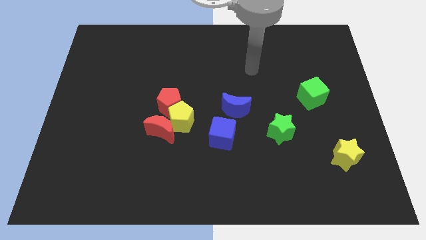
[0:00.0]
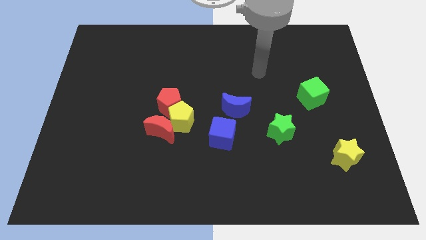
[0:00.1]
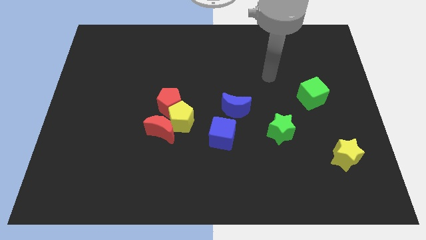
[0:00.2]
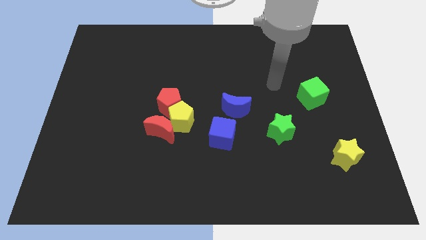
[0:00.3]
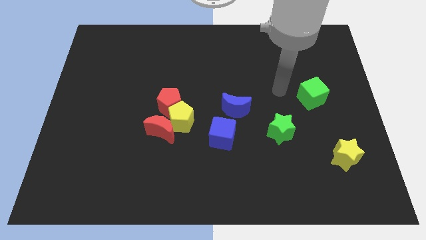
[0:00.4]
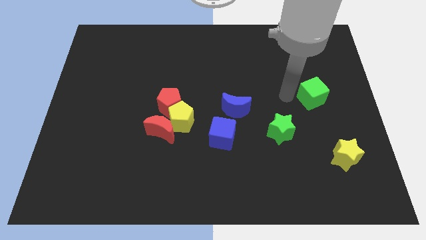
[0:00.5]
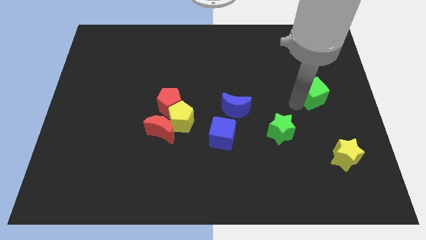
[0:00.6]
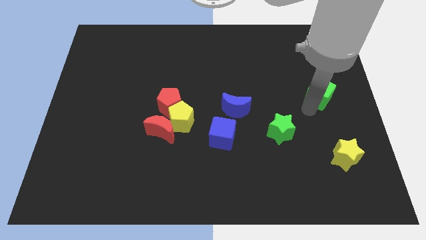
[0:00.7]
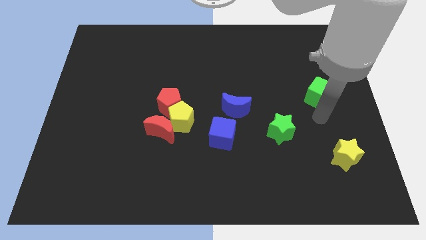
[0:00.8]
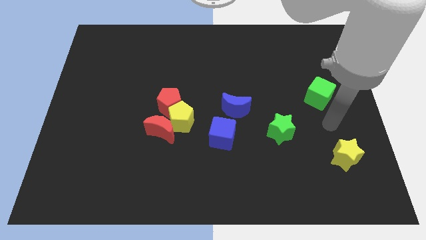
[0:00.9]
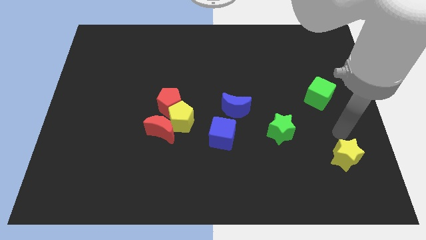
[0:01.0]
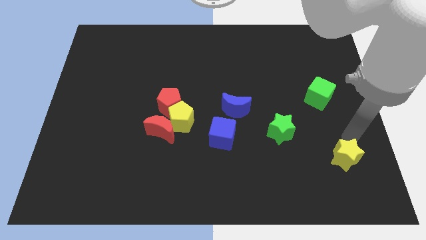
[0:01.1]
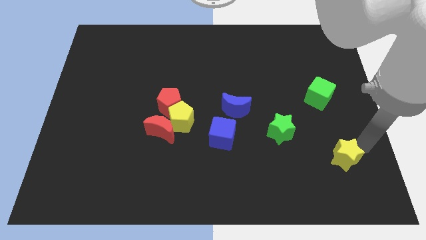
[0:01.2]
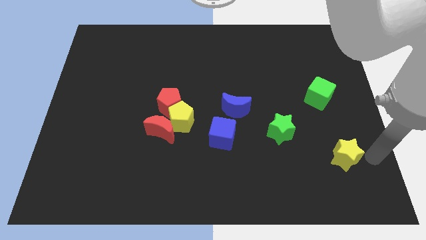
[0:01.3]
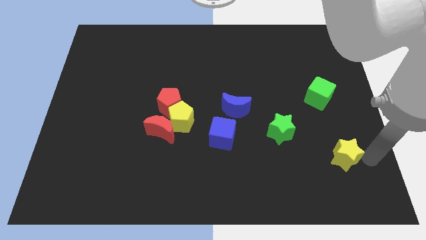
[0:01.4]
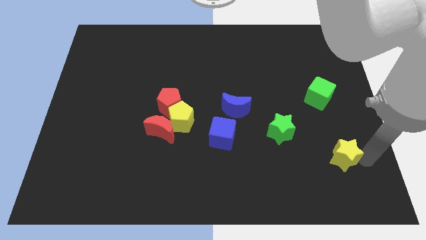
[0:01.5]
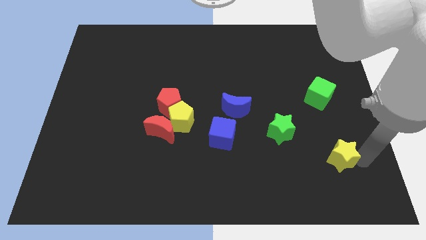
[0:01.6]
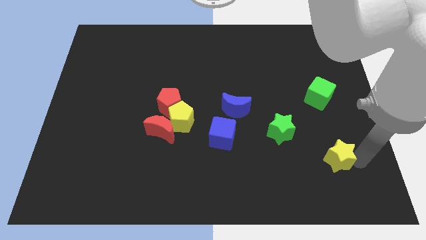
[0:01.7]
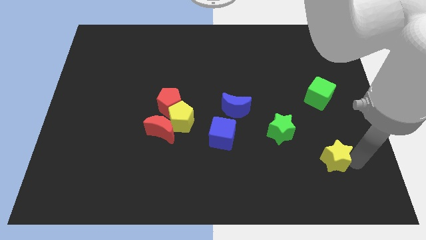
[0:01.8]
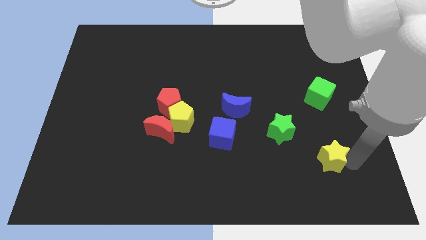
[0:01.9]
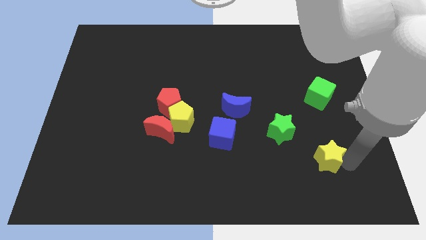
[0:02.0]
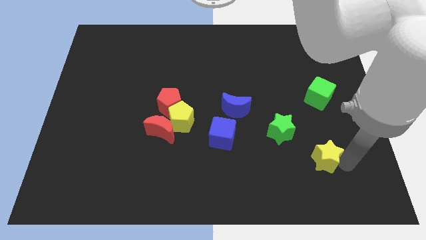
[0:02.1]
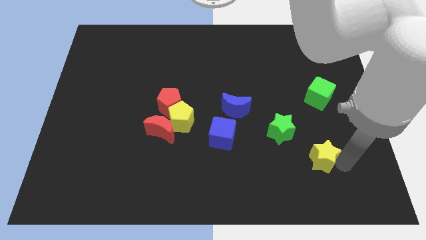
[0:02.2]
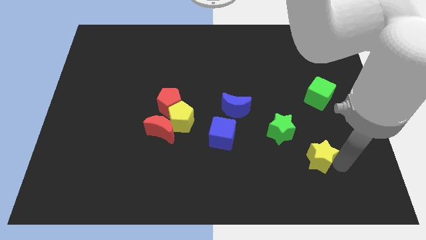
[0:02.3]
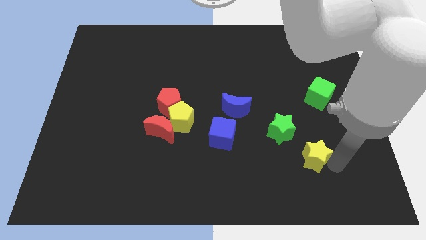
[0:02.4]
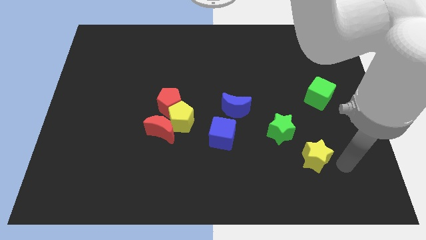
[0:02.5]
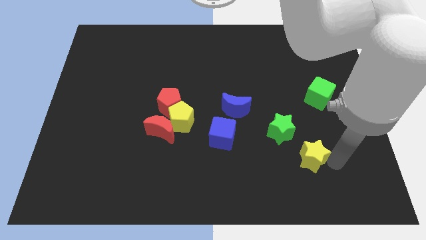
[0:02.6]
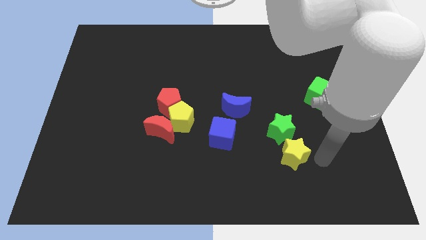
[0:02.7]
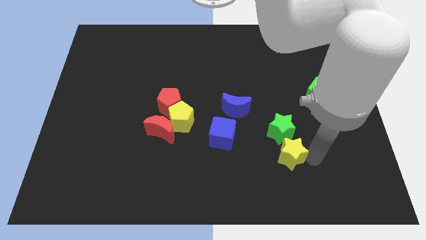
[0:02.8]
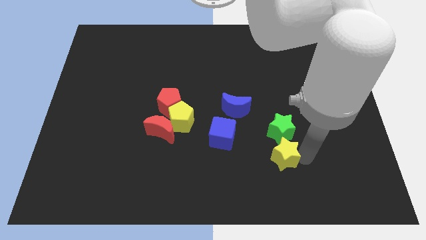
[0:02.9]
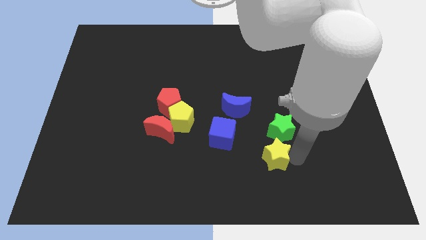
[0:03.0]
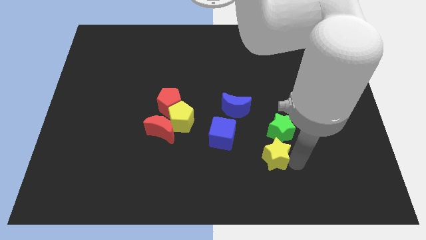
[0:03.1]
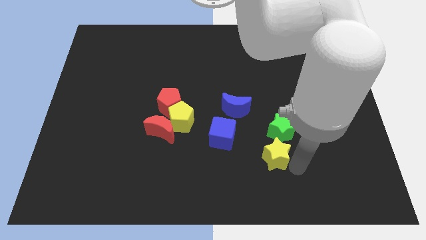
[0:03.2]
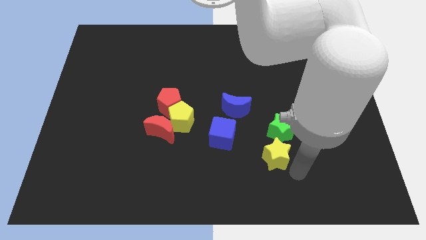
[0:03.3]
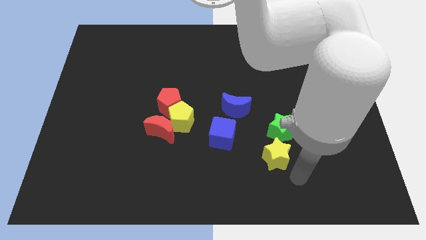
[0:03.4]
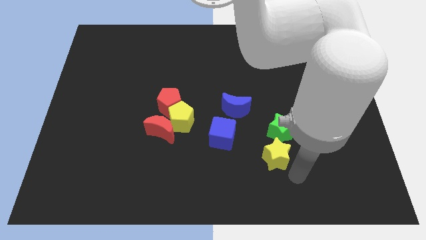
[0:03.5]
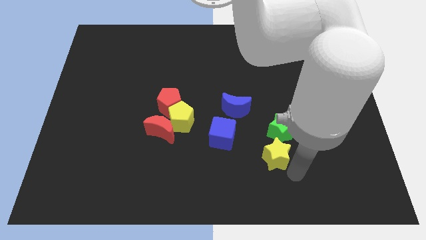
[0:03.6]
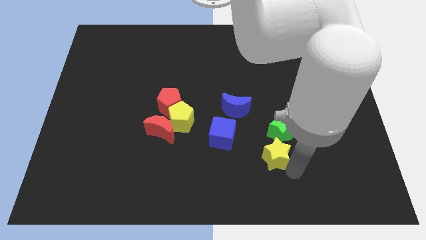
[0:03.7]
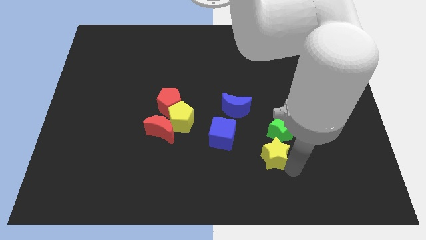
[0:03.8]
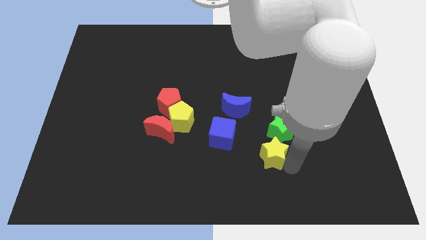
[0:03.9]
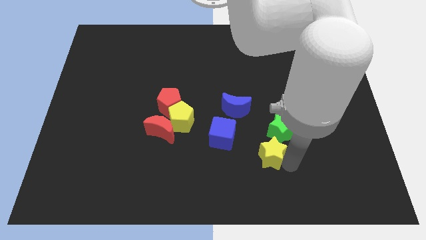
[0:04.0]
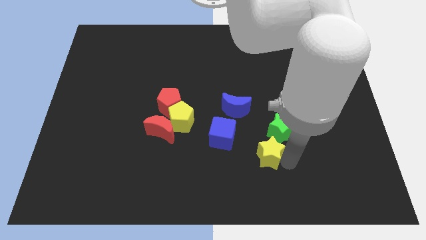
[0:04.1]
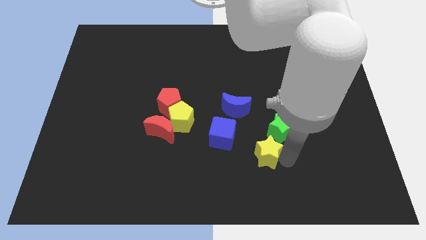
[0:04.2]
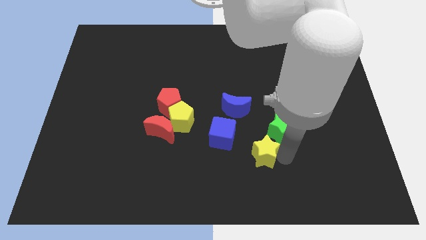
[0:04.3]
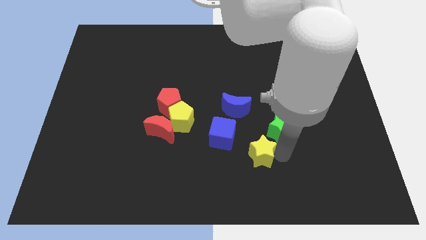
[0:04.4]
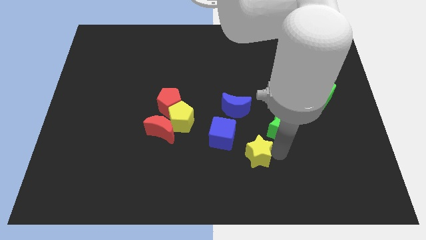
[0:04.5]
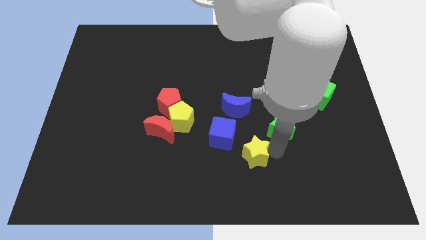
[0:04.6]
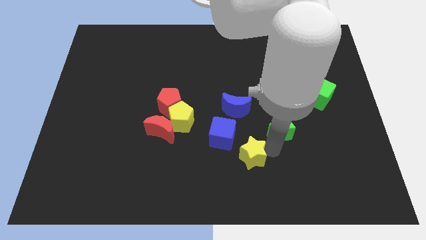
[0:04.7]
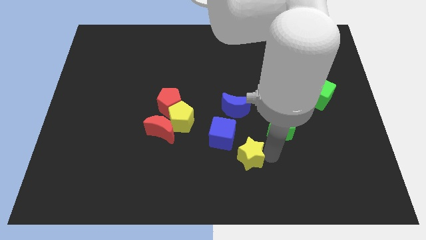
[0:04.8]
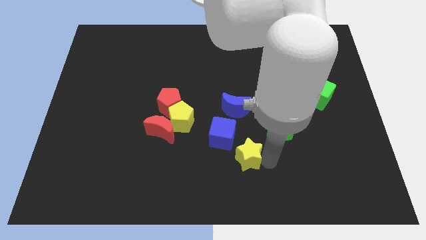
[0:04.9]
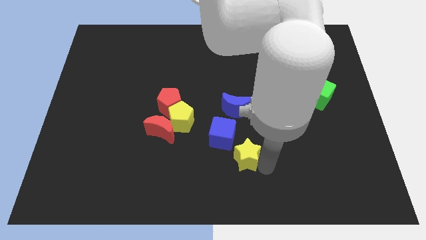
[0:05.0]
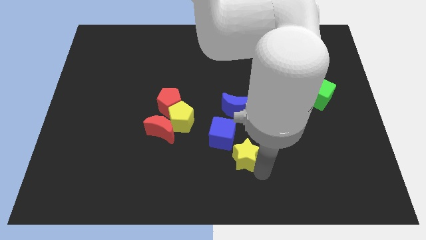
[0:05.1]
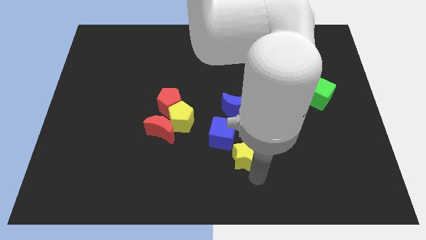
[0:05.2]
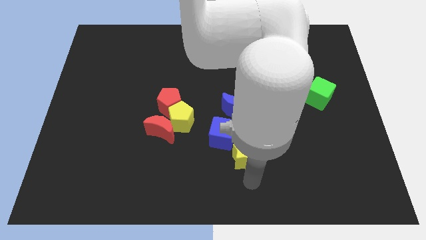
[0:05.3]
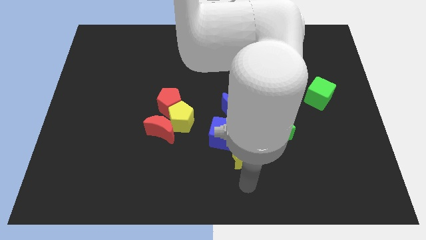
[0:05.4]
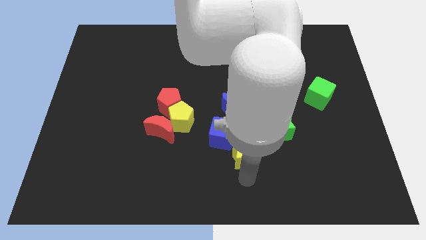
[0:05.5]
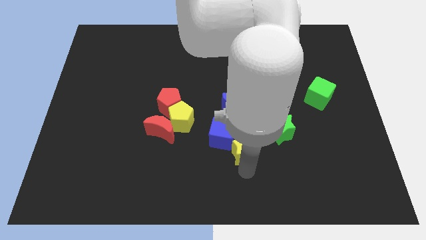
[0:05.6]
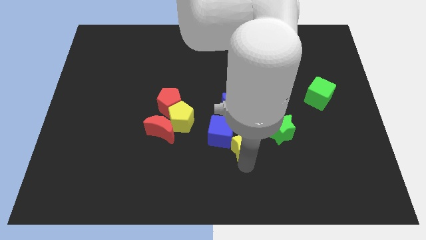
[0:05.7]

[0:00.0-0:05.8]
push the yellow star to the blue cube

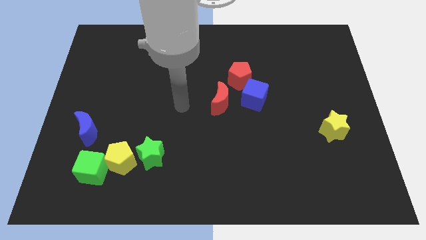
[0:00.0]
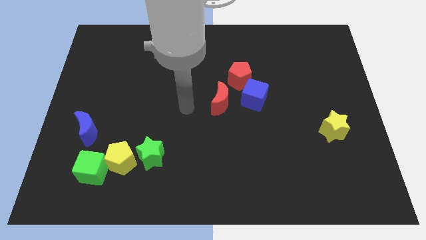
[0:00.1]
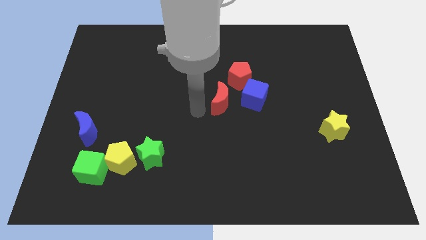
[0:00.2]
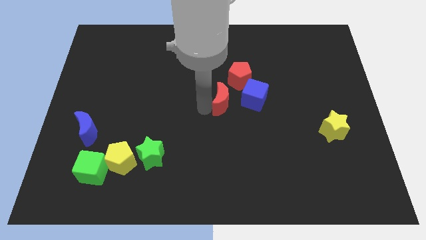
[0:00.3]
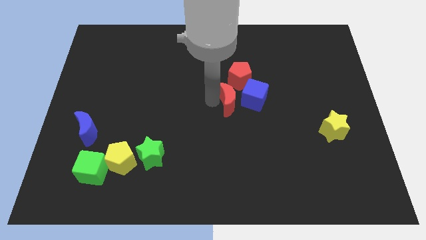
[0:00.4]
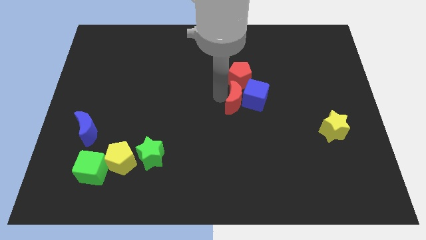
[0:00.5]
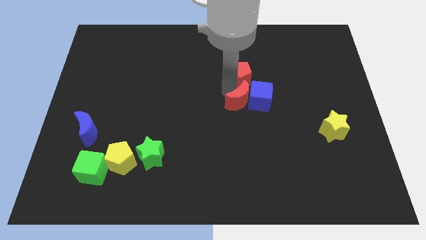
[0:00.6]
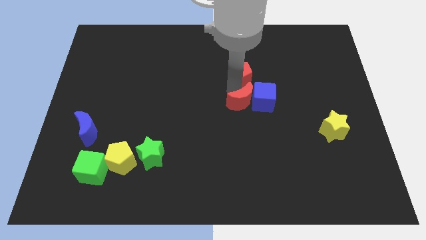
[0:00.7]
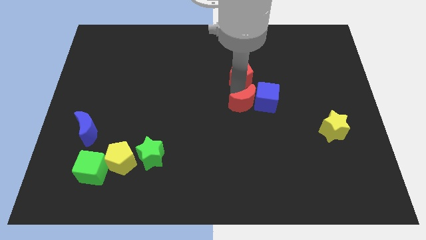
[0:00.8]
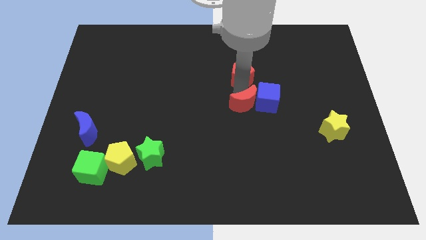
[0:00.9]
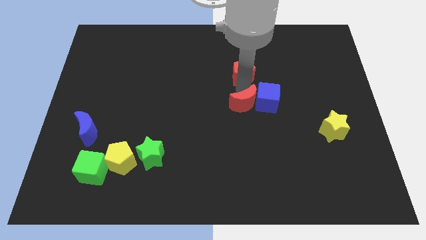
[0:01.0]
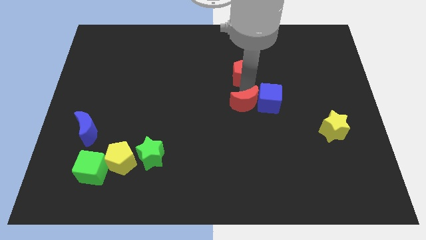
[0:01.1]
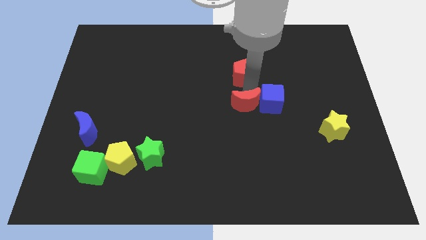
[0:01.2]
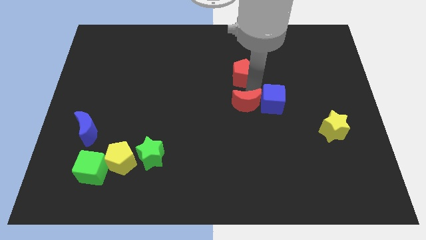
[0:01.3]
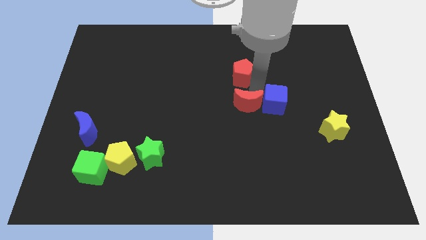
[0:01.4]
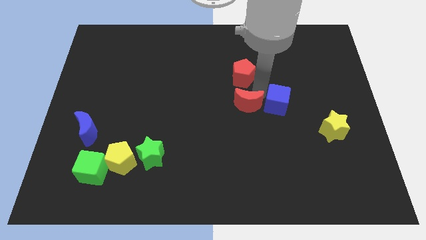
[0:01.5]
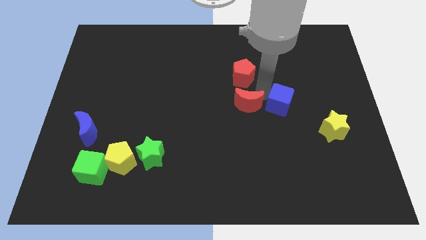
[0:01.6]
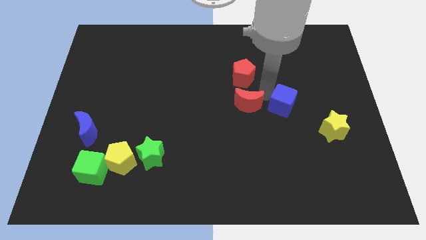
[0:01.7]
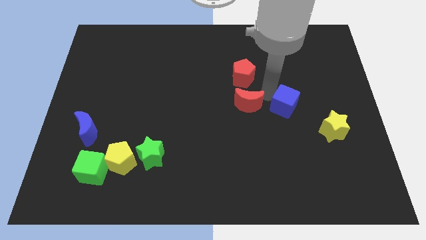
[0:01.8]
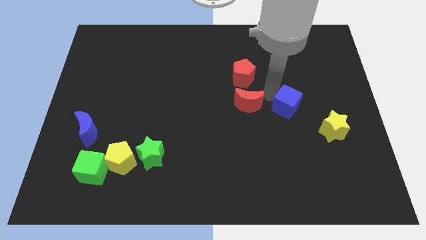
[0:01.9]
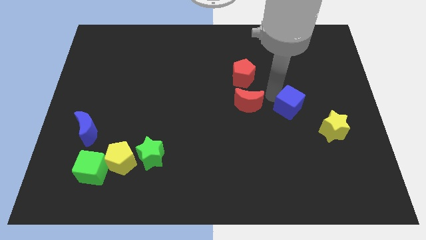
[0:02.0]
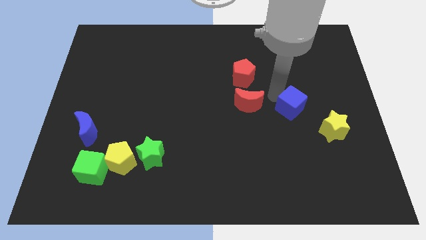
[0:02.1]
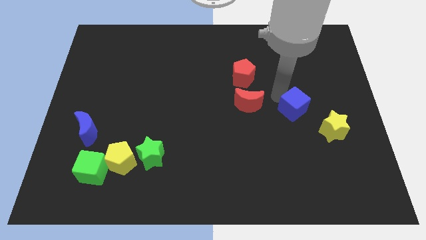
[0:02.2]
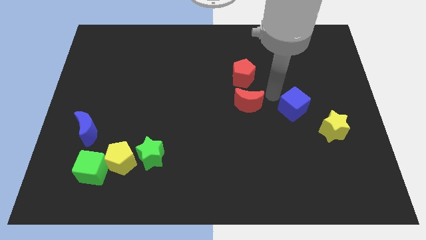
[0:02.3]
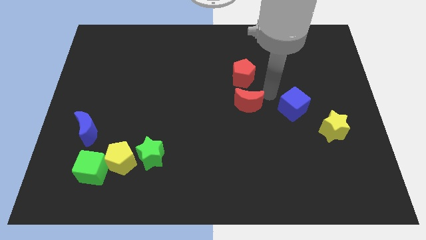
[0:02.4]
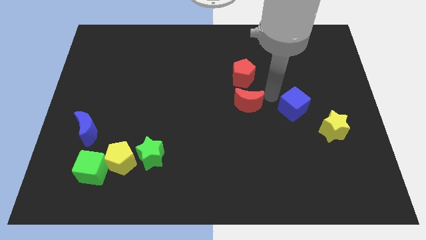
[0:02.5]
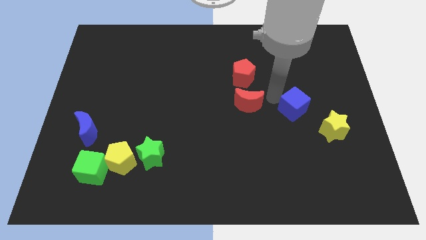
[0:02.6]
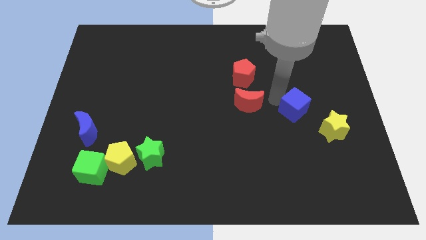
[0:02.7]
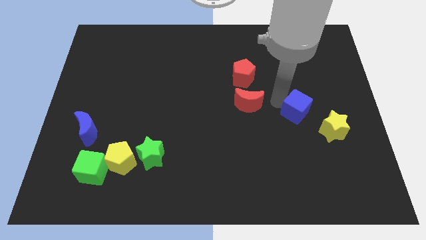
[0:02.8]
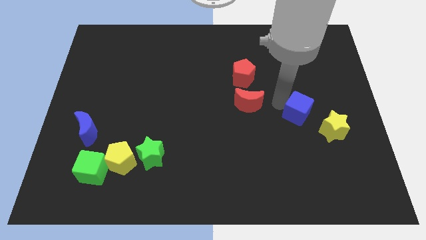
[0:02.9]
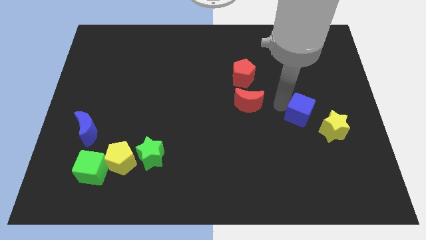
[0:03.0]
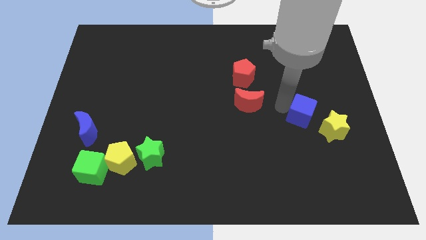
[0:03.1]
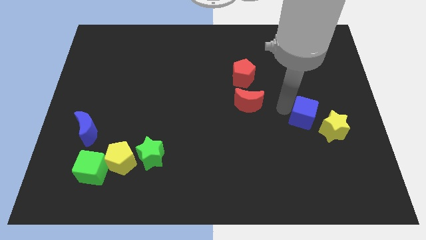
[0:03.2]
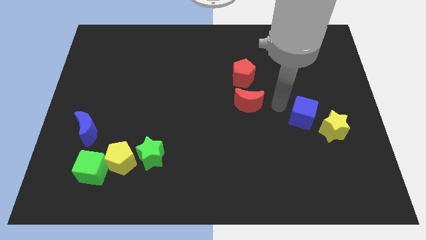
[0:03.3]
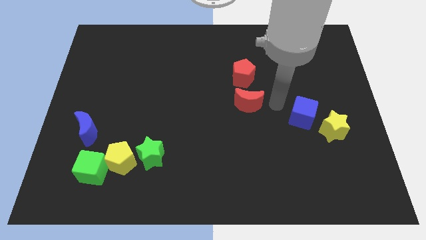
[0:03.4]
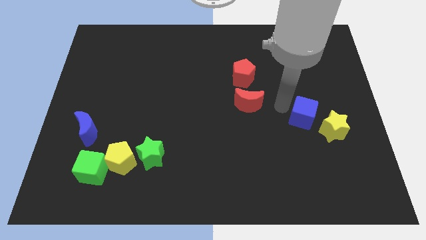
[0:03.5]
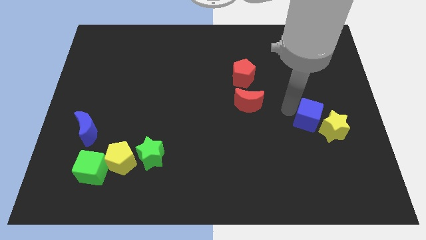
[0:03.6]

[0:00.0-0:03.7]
move the blue cube next to the yellow star
